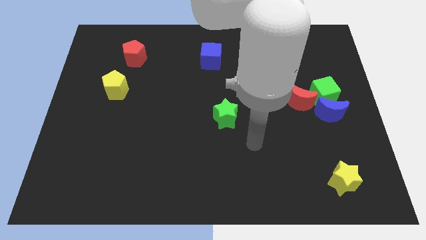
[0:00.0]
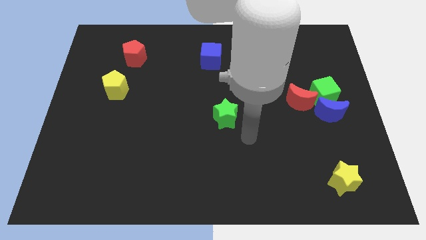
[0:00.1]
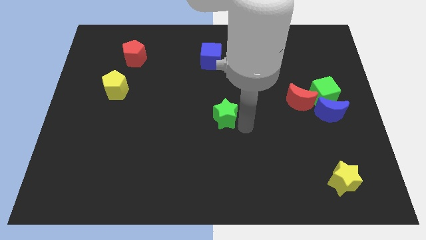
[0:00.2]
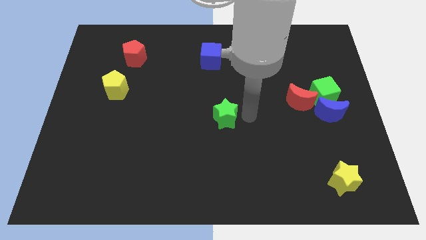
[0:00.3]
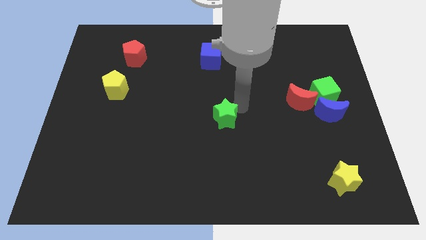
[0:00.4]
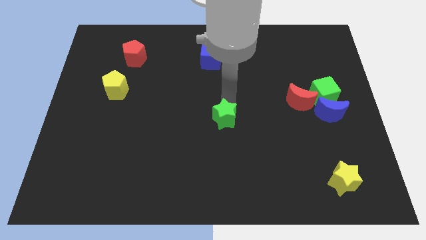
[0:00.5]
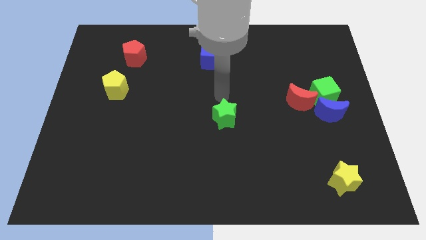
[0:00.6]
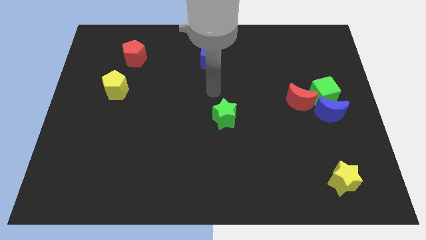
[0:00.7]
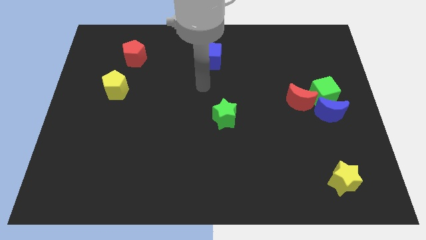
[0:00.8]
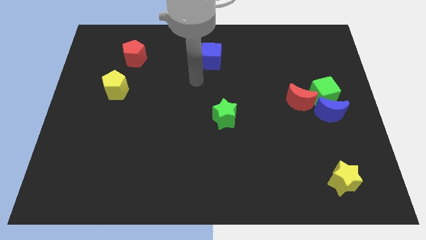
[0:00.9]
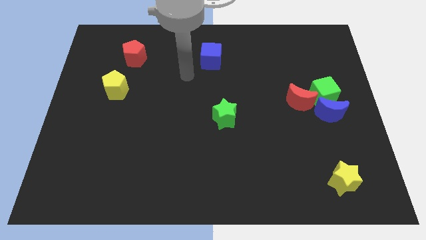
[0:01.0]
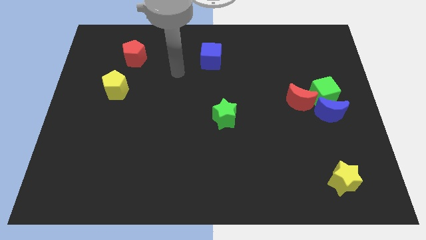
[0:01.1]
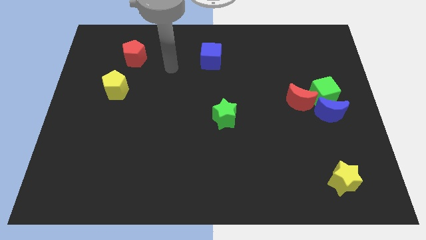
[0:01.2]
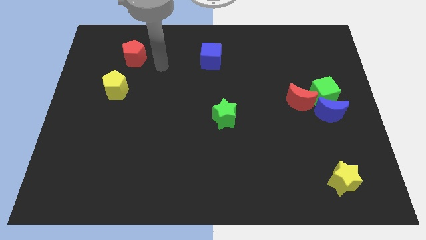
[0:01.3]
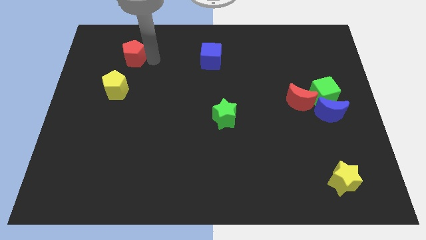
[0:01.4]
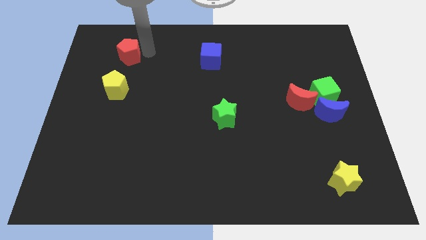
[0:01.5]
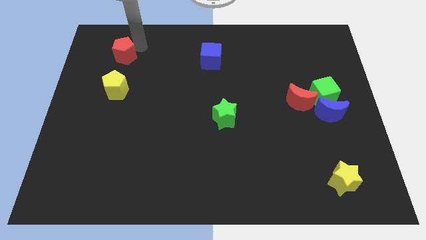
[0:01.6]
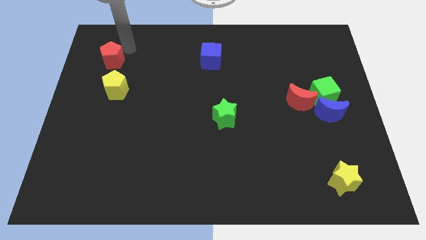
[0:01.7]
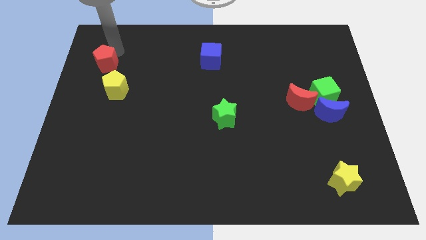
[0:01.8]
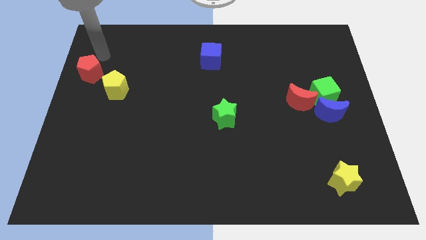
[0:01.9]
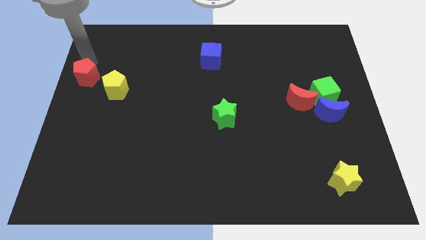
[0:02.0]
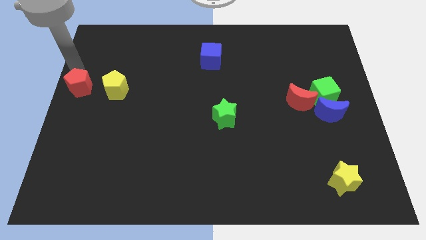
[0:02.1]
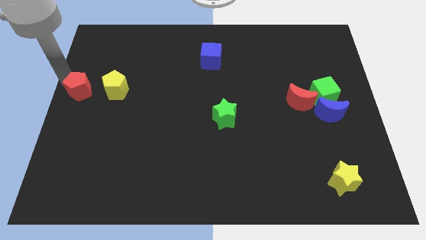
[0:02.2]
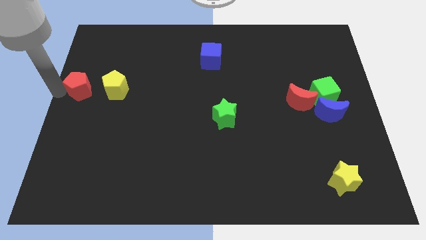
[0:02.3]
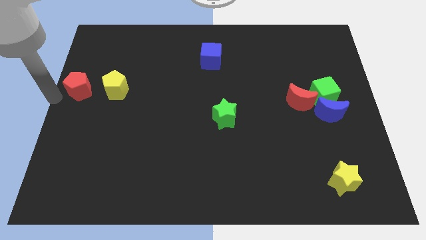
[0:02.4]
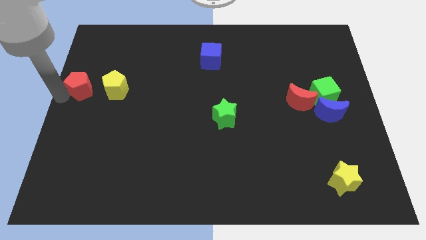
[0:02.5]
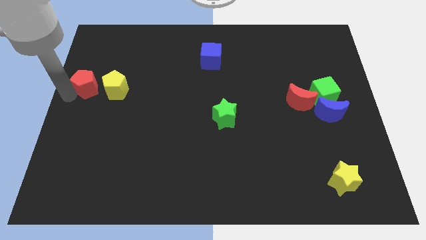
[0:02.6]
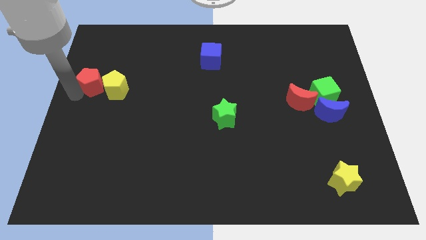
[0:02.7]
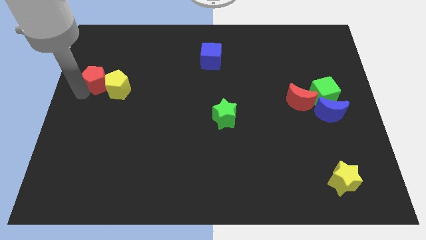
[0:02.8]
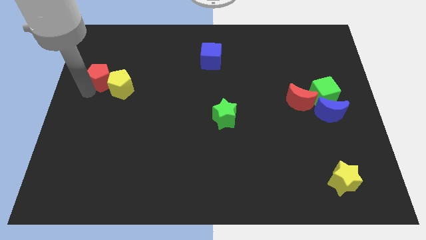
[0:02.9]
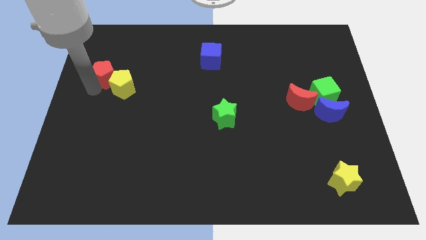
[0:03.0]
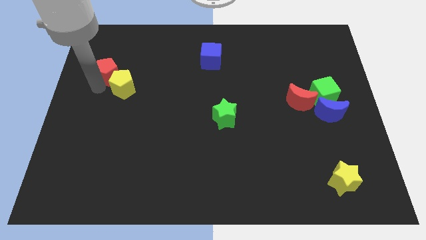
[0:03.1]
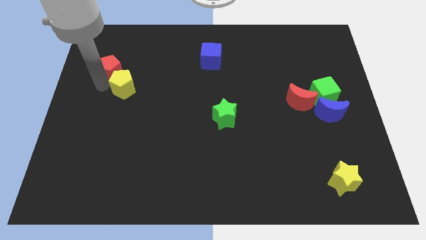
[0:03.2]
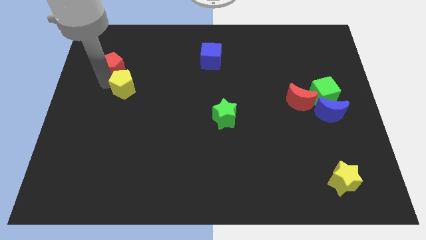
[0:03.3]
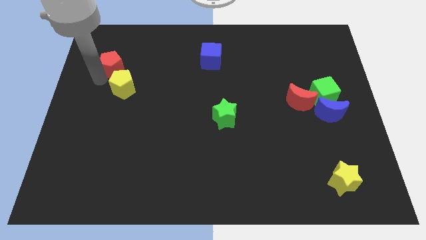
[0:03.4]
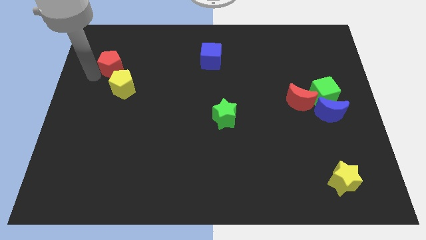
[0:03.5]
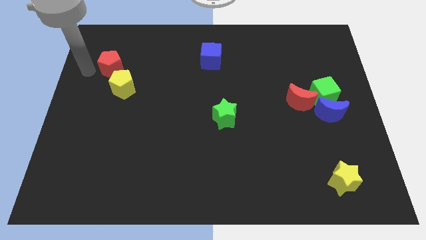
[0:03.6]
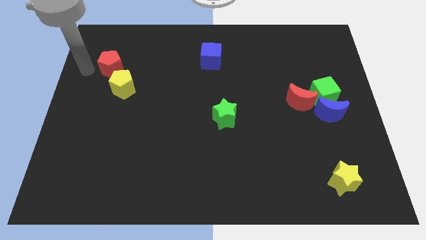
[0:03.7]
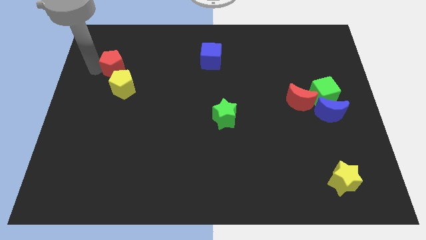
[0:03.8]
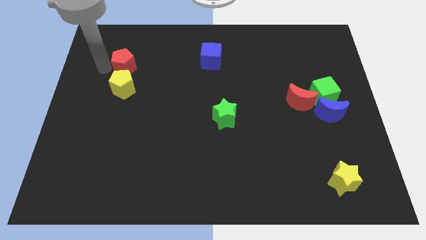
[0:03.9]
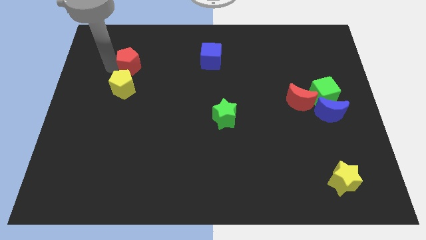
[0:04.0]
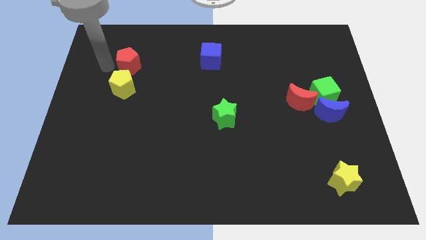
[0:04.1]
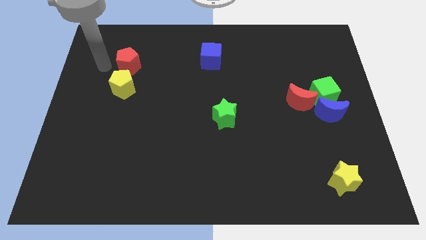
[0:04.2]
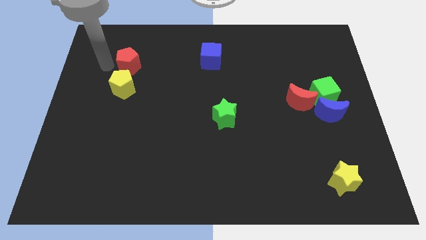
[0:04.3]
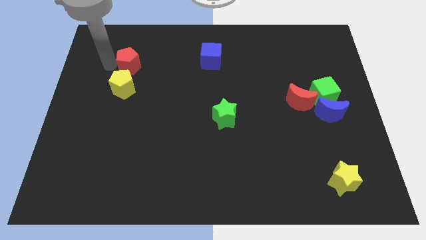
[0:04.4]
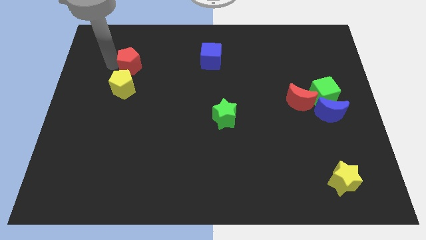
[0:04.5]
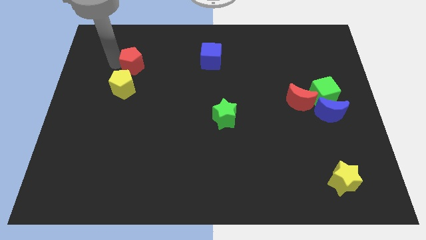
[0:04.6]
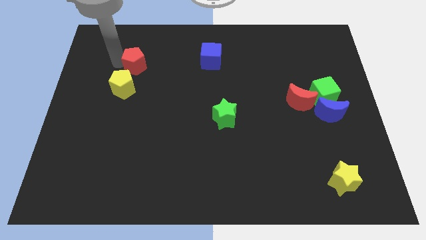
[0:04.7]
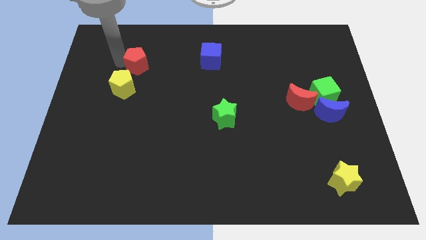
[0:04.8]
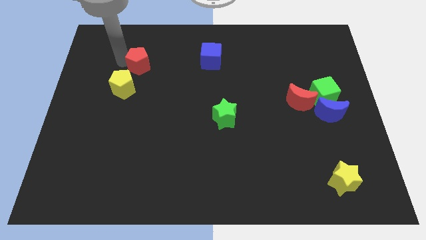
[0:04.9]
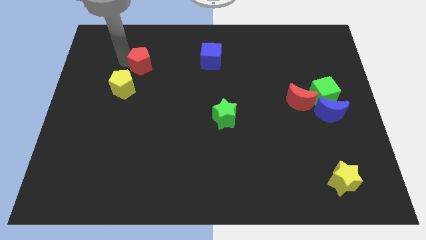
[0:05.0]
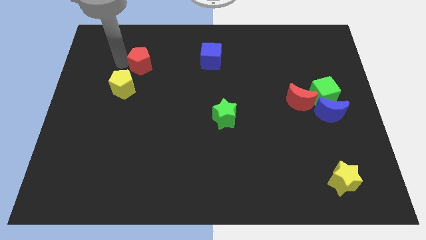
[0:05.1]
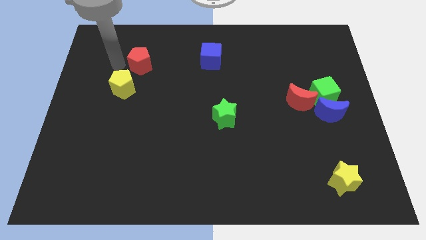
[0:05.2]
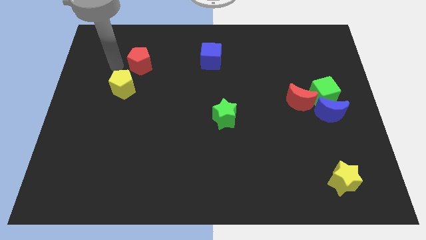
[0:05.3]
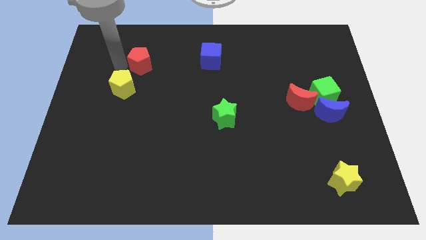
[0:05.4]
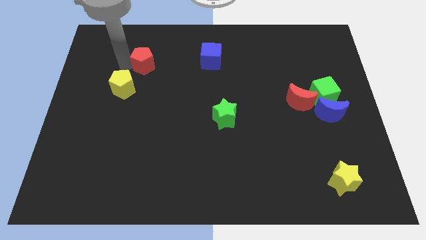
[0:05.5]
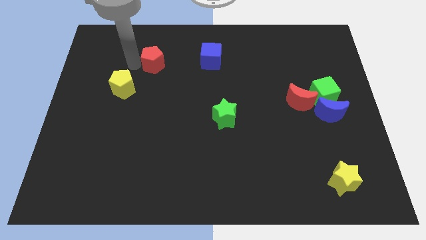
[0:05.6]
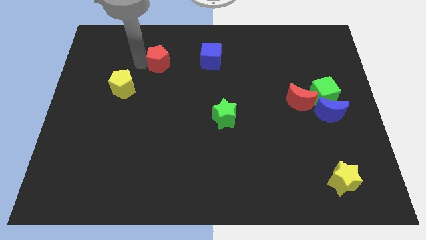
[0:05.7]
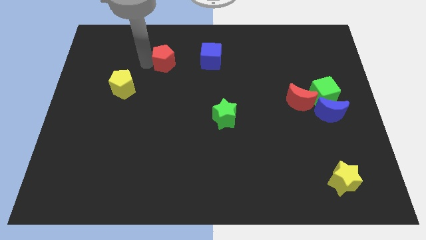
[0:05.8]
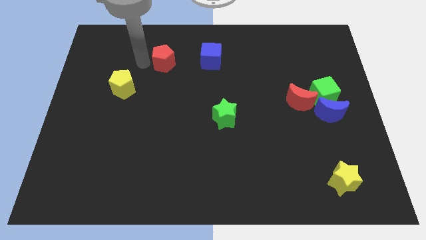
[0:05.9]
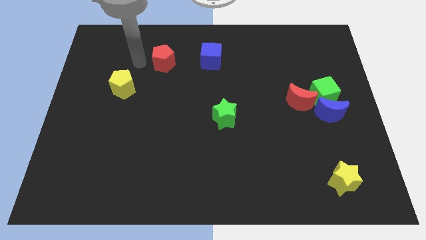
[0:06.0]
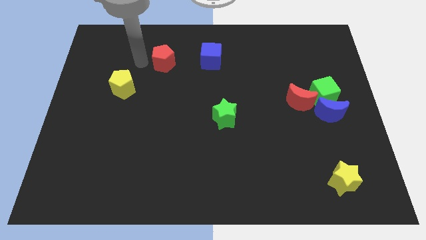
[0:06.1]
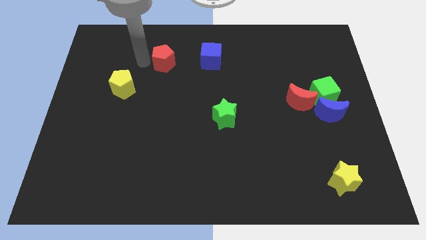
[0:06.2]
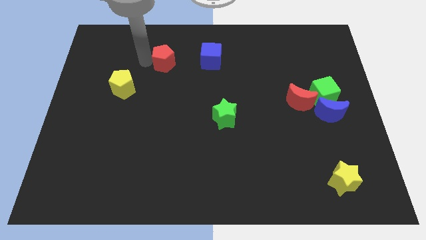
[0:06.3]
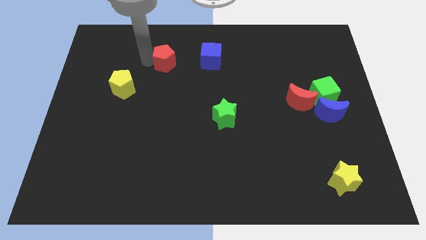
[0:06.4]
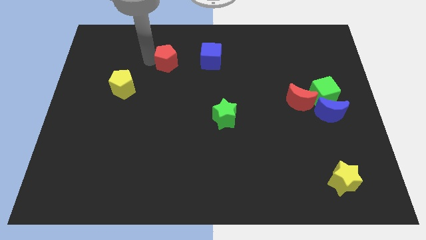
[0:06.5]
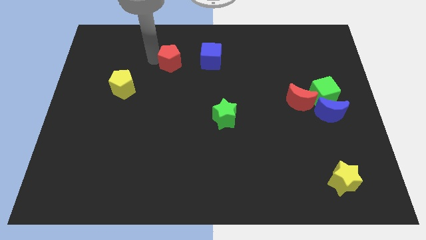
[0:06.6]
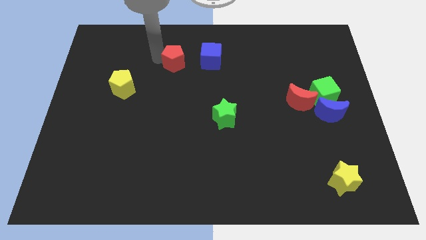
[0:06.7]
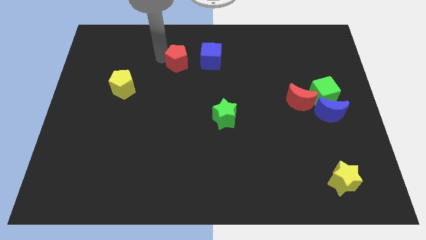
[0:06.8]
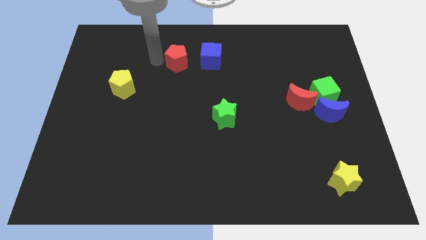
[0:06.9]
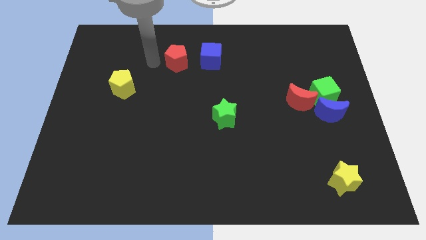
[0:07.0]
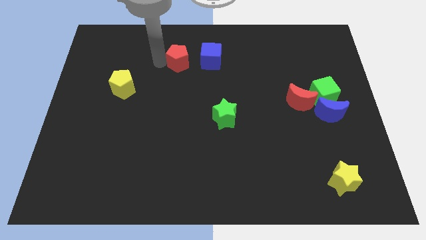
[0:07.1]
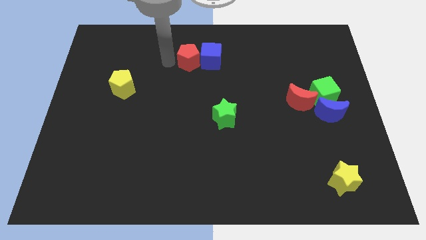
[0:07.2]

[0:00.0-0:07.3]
push the red pentagon towards the blue cube
